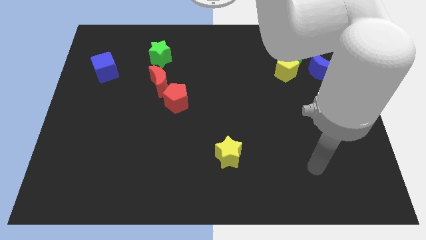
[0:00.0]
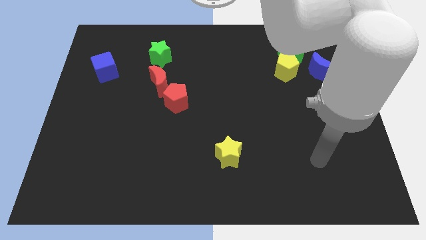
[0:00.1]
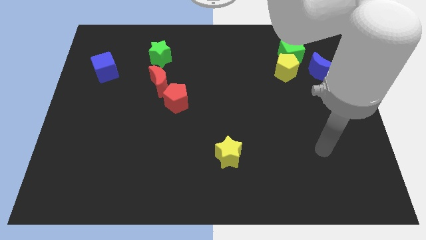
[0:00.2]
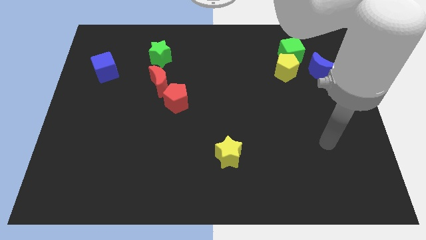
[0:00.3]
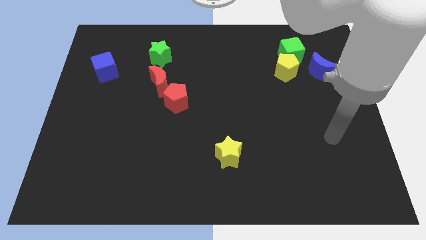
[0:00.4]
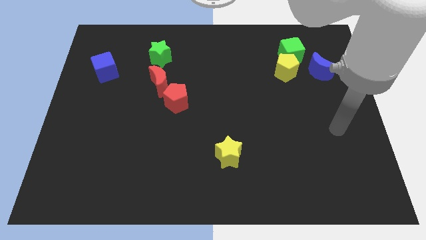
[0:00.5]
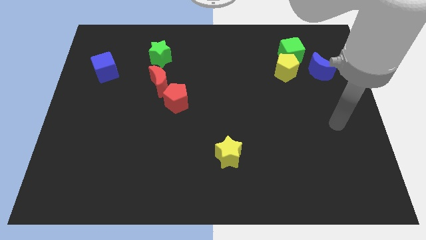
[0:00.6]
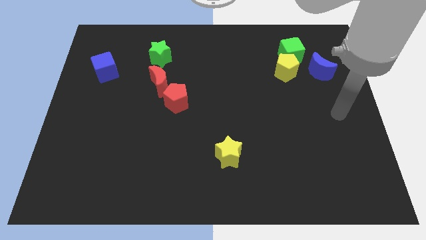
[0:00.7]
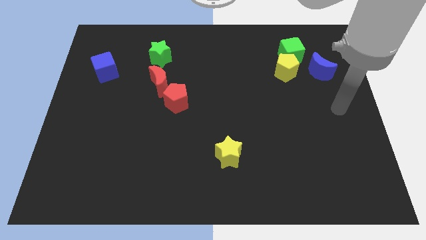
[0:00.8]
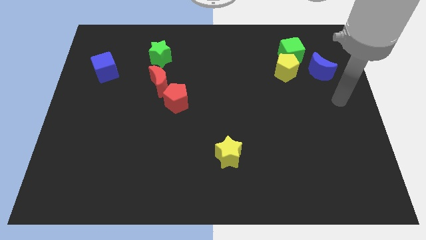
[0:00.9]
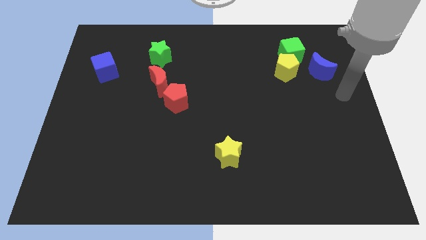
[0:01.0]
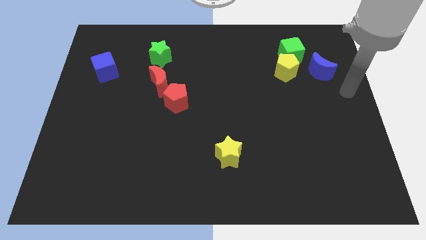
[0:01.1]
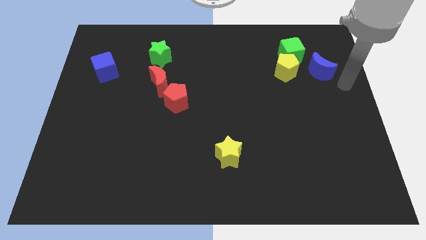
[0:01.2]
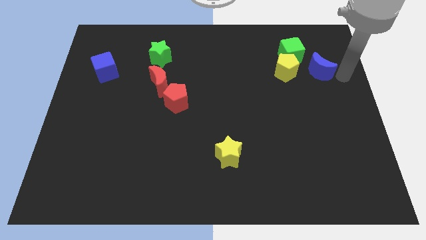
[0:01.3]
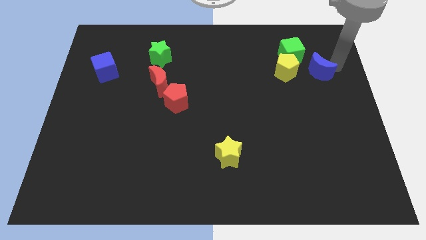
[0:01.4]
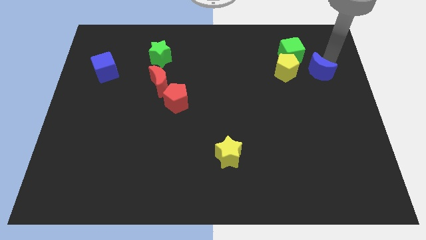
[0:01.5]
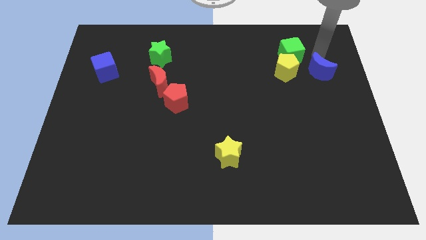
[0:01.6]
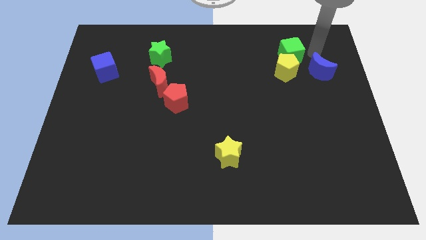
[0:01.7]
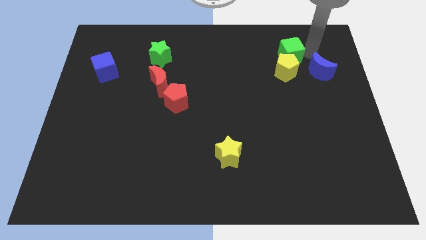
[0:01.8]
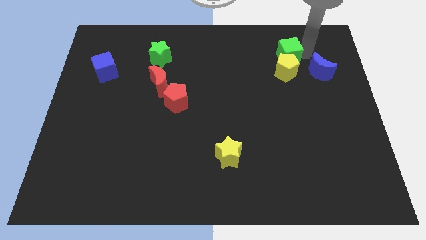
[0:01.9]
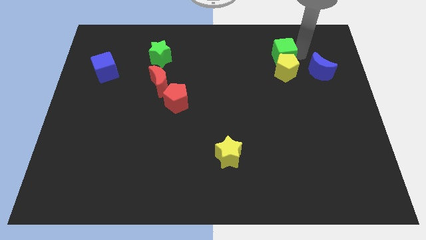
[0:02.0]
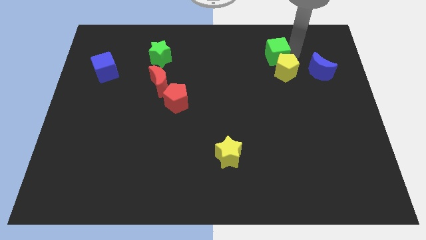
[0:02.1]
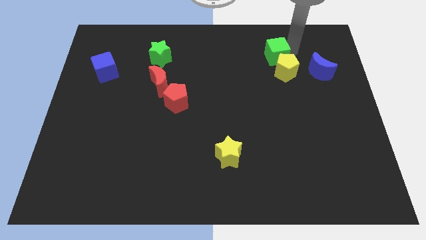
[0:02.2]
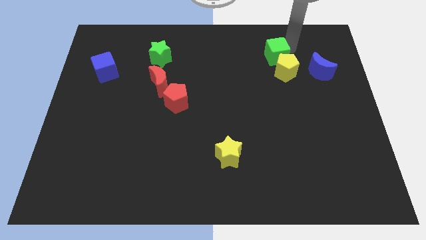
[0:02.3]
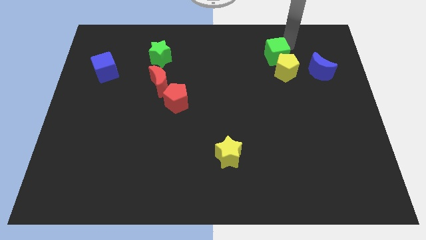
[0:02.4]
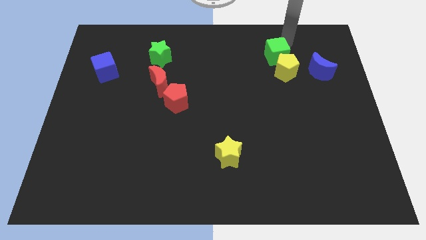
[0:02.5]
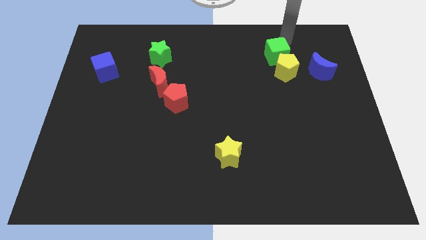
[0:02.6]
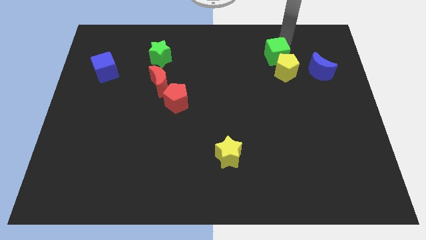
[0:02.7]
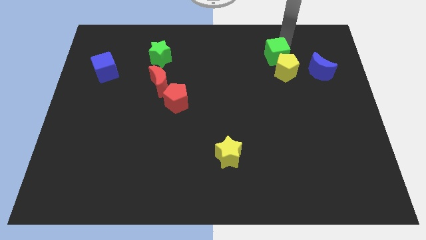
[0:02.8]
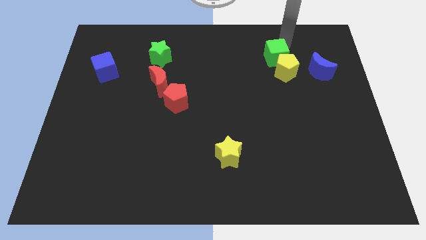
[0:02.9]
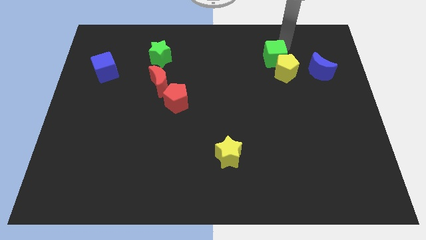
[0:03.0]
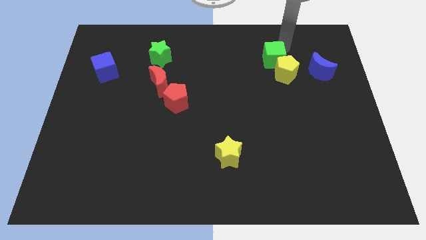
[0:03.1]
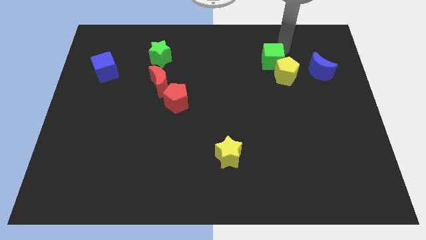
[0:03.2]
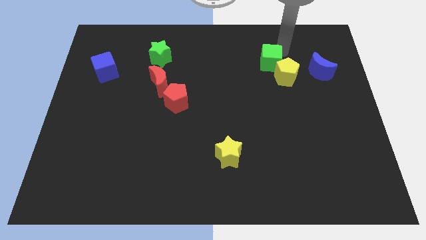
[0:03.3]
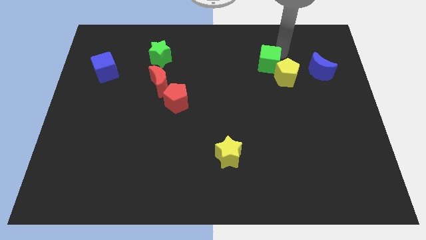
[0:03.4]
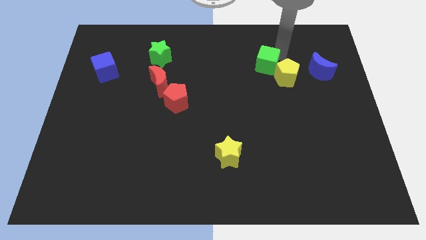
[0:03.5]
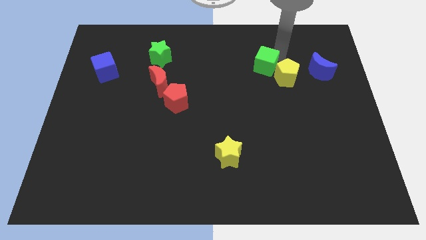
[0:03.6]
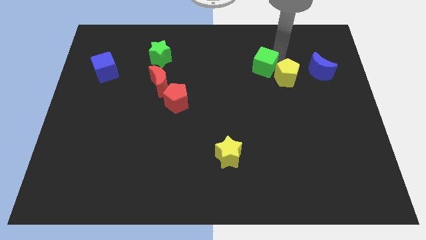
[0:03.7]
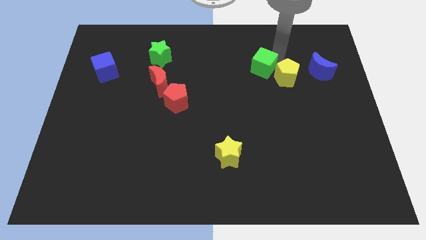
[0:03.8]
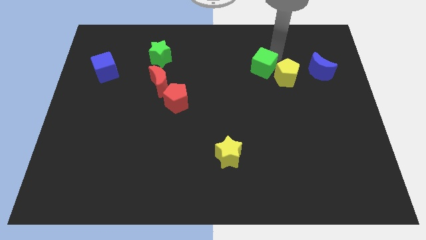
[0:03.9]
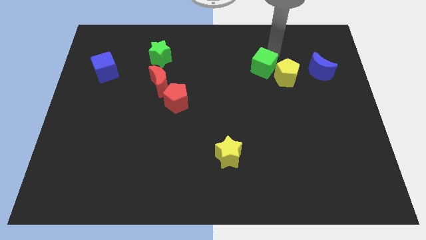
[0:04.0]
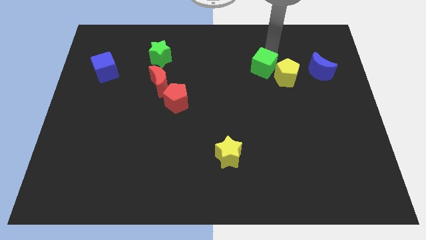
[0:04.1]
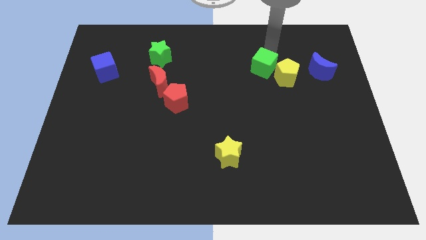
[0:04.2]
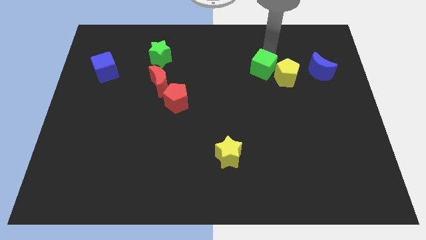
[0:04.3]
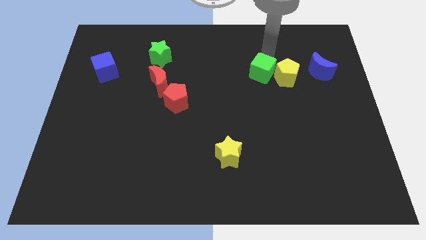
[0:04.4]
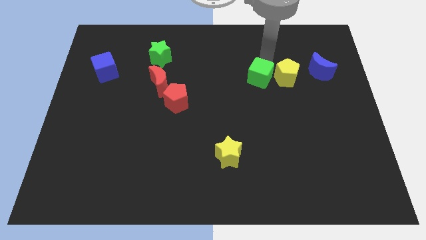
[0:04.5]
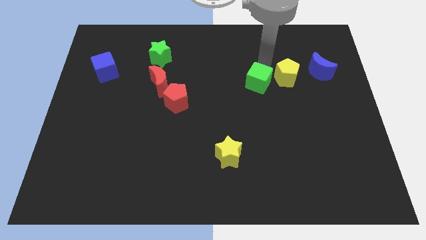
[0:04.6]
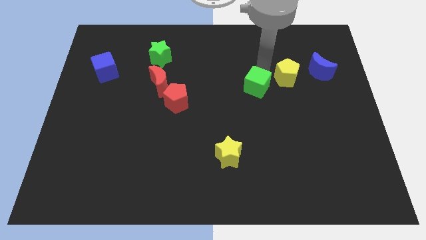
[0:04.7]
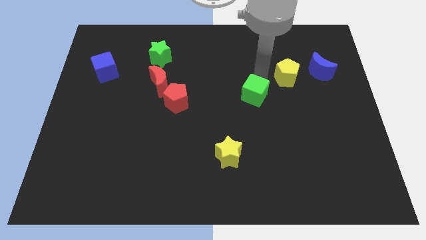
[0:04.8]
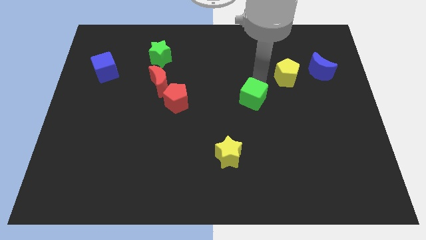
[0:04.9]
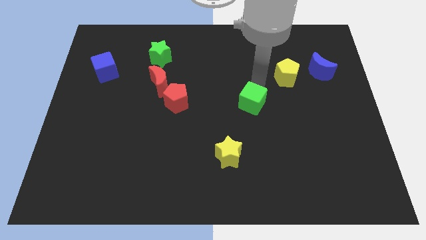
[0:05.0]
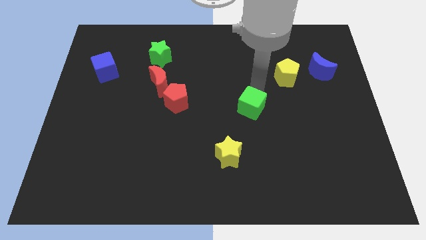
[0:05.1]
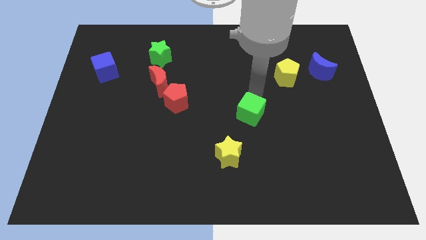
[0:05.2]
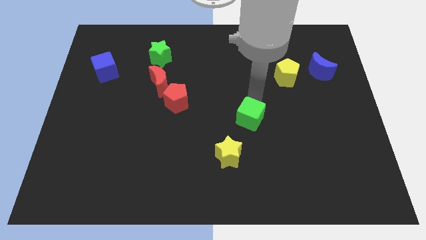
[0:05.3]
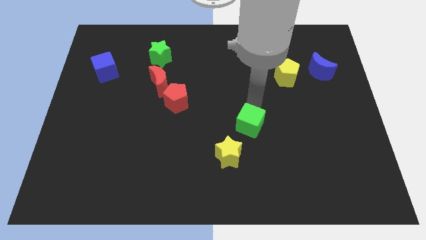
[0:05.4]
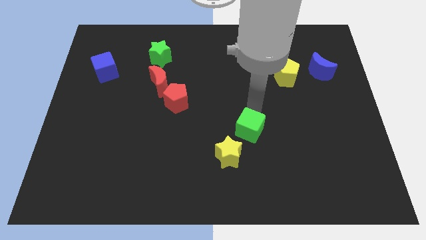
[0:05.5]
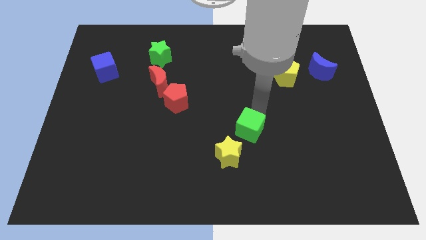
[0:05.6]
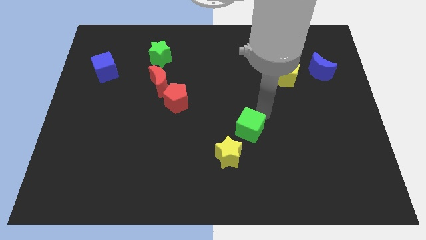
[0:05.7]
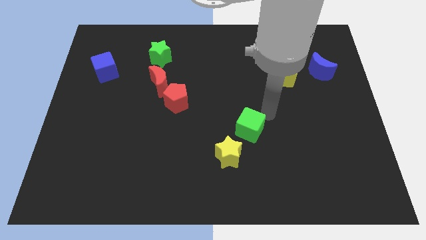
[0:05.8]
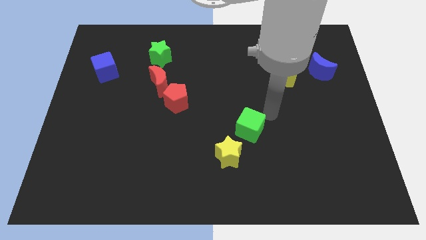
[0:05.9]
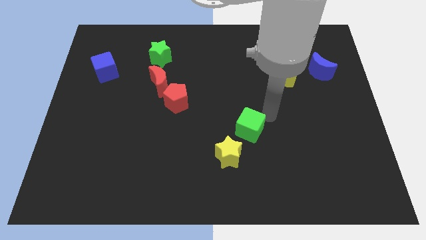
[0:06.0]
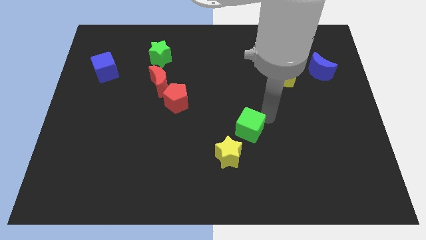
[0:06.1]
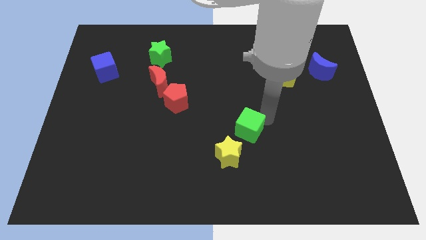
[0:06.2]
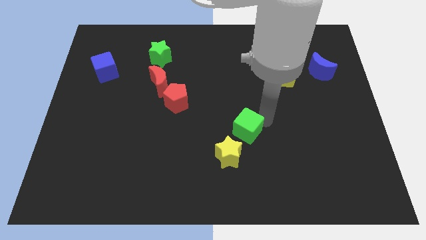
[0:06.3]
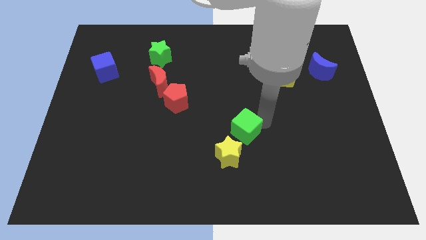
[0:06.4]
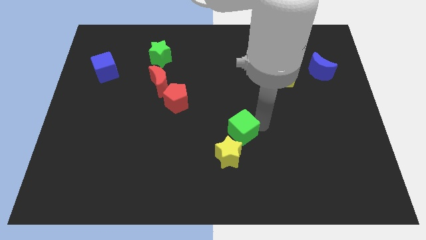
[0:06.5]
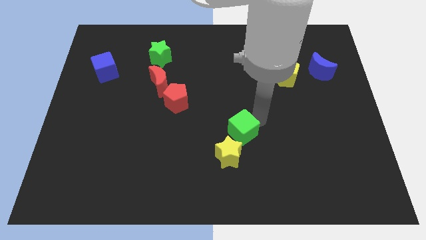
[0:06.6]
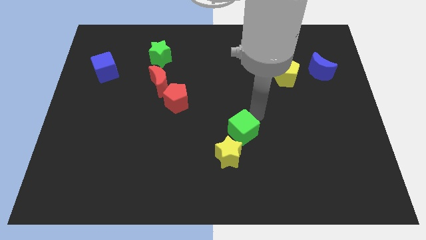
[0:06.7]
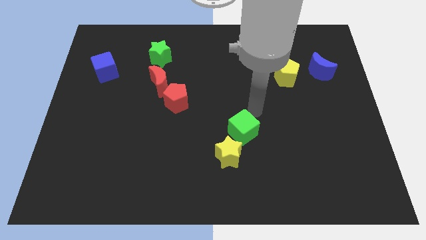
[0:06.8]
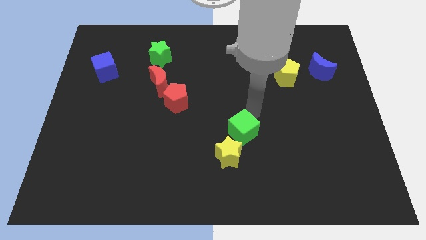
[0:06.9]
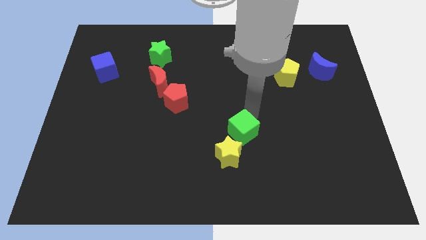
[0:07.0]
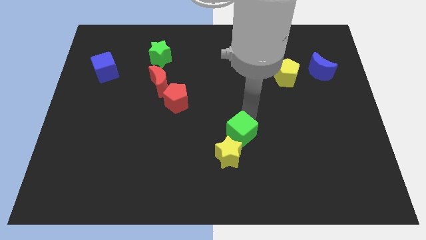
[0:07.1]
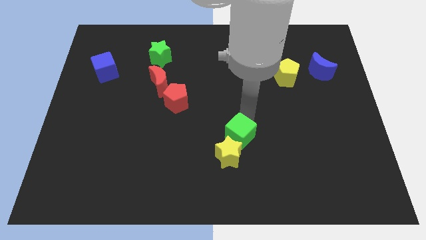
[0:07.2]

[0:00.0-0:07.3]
push the green cube next to the yellow star

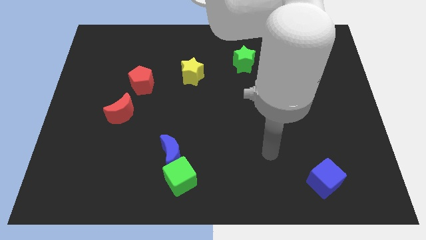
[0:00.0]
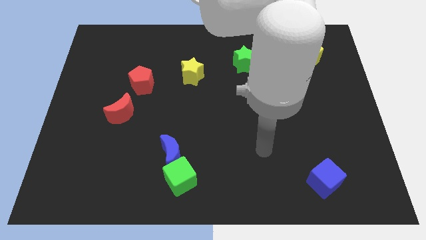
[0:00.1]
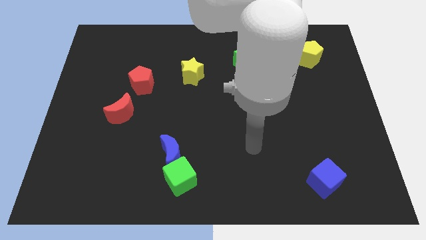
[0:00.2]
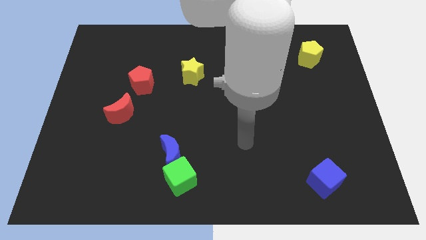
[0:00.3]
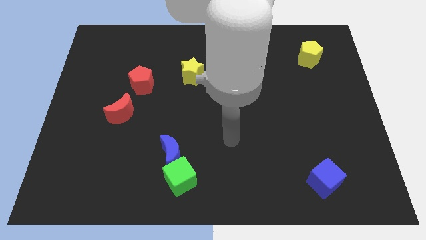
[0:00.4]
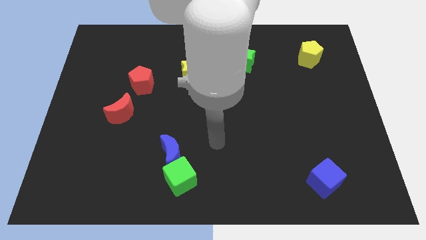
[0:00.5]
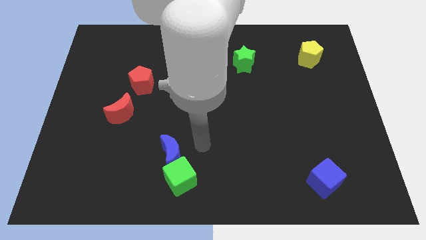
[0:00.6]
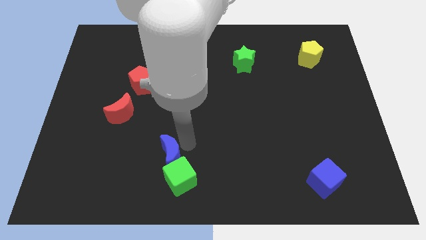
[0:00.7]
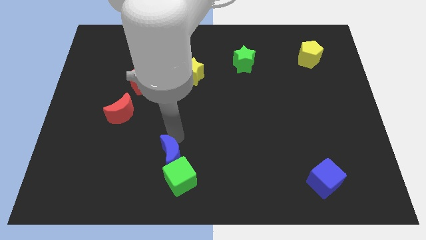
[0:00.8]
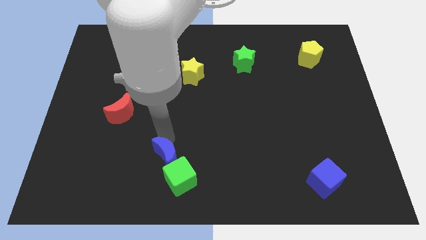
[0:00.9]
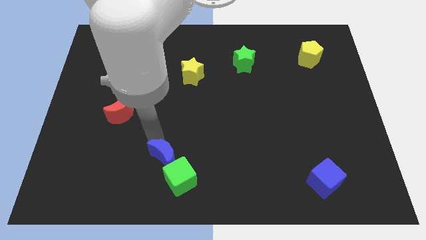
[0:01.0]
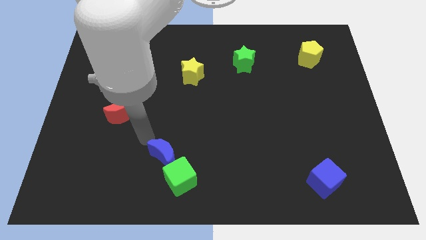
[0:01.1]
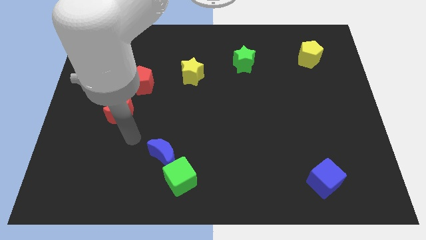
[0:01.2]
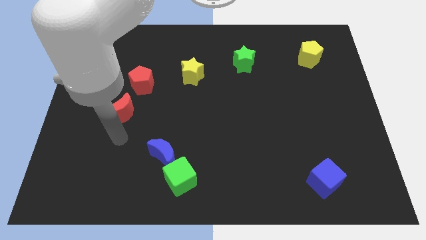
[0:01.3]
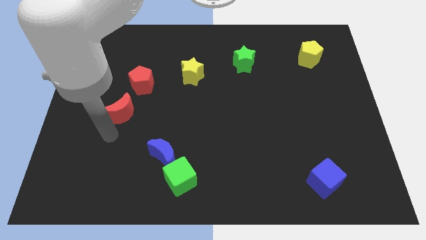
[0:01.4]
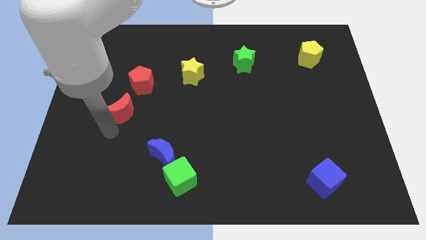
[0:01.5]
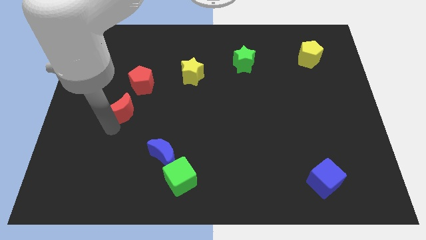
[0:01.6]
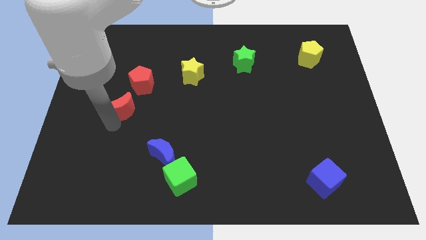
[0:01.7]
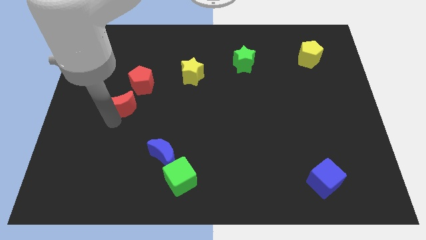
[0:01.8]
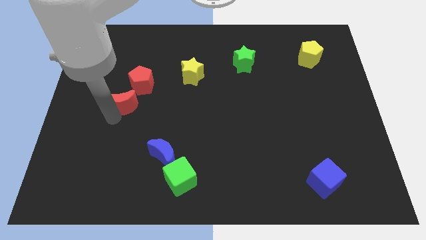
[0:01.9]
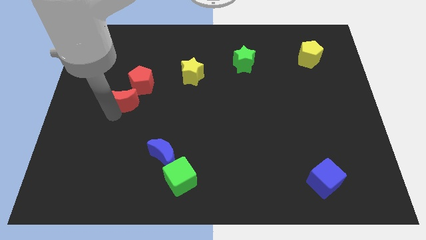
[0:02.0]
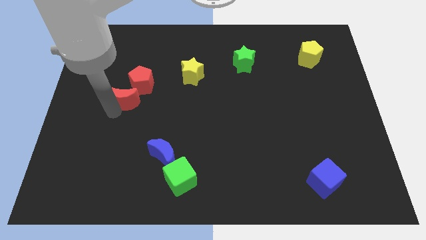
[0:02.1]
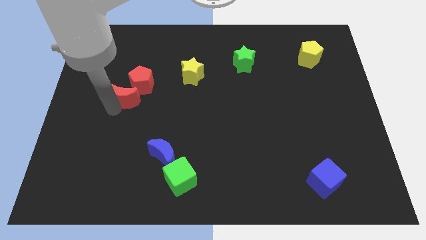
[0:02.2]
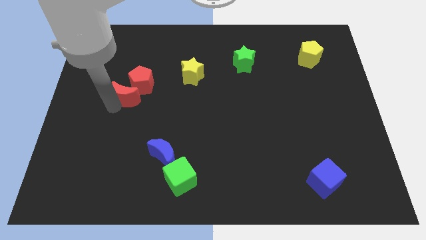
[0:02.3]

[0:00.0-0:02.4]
slide the red moon to the red pentagon
